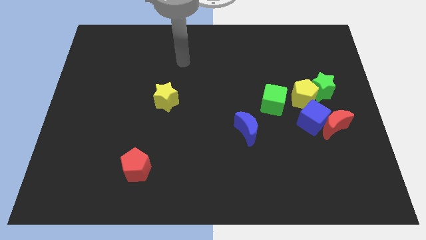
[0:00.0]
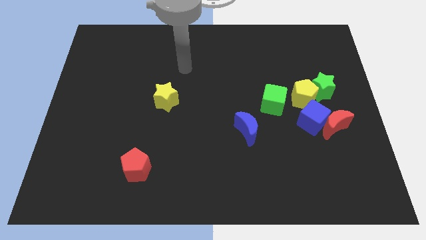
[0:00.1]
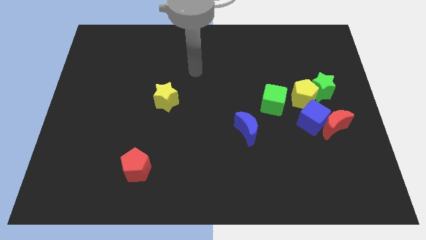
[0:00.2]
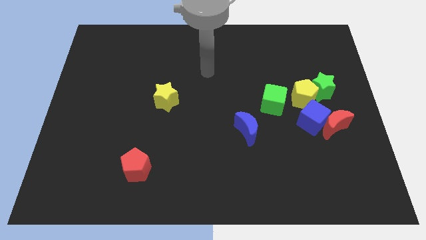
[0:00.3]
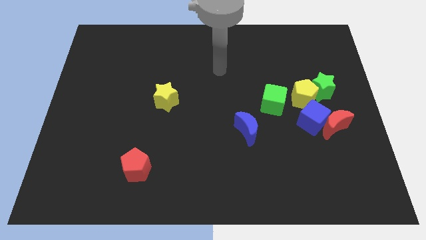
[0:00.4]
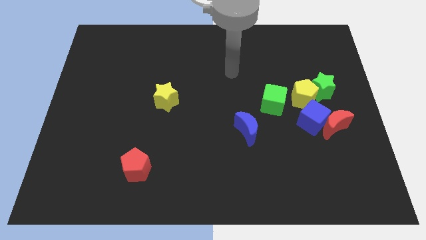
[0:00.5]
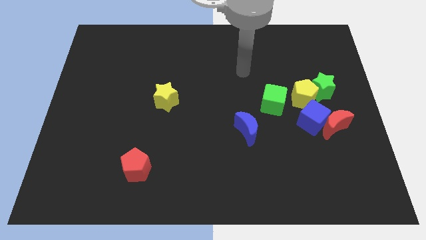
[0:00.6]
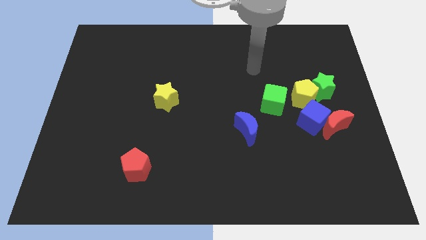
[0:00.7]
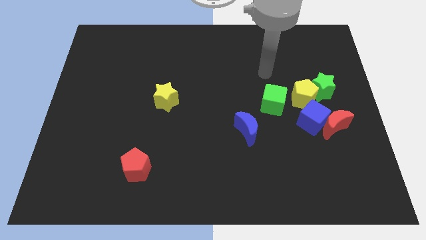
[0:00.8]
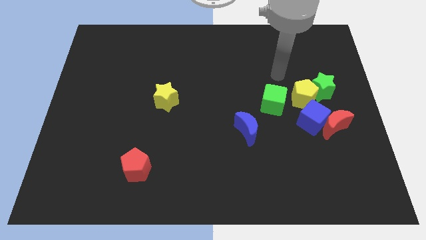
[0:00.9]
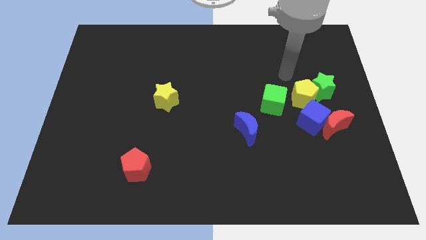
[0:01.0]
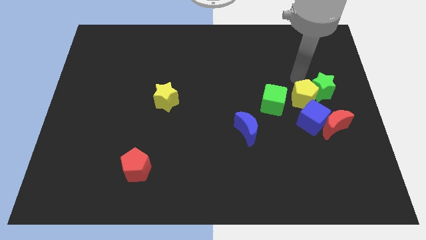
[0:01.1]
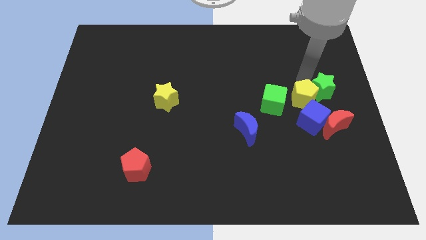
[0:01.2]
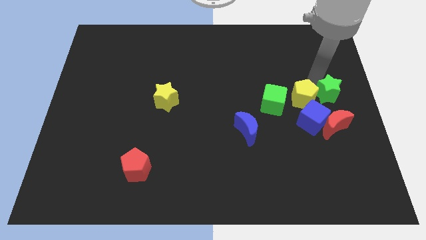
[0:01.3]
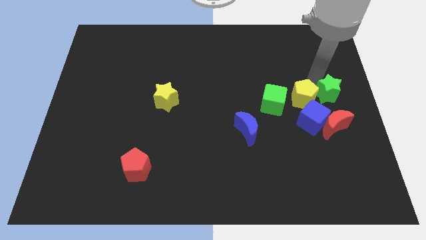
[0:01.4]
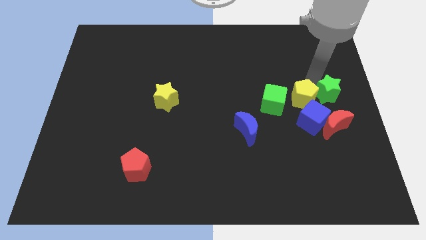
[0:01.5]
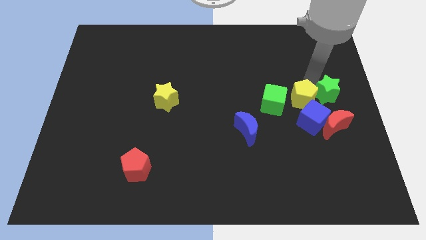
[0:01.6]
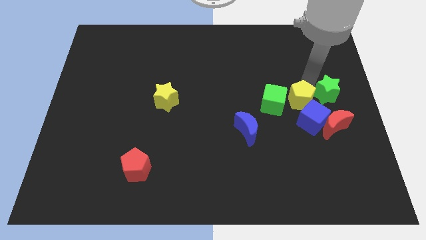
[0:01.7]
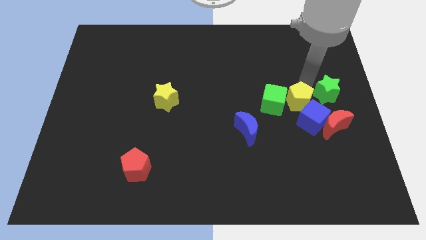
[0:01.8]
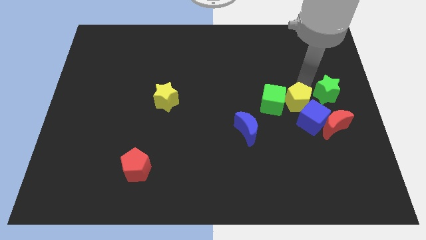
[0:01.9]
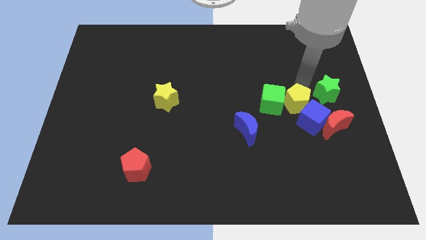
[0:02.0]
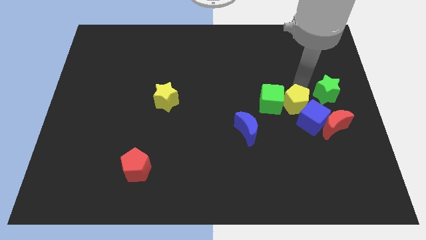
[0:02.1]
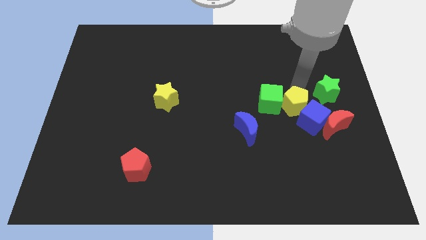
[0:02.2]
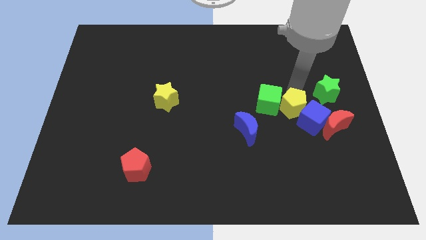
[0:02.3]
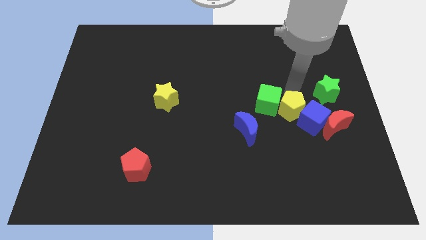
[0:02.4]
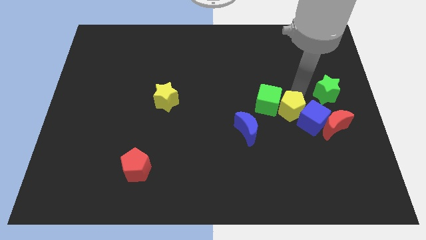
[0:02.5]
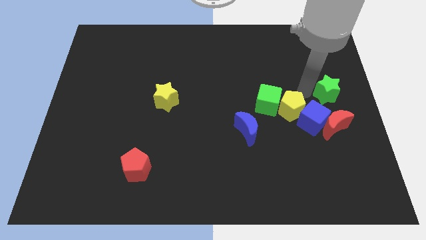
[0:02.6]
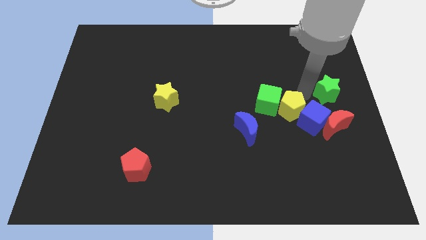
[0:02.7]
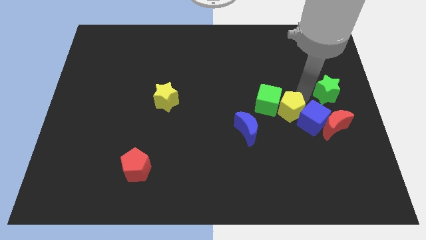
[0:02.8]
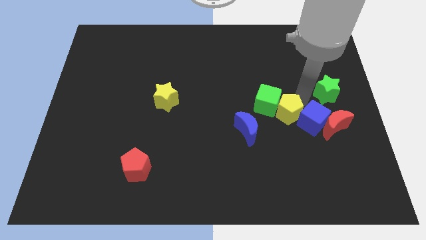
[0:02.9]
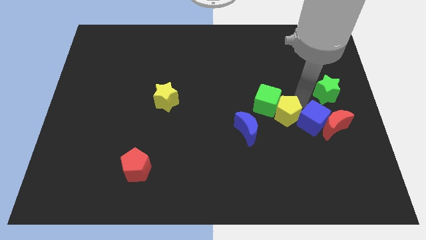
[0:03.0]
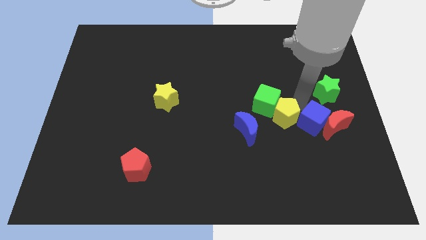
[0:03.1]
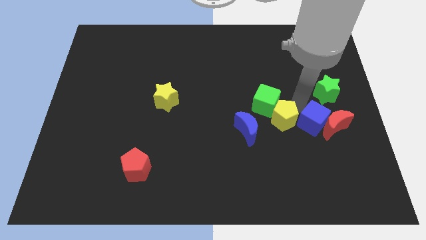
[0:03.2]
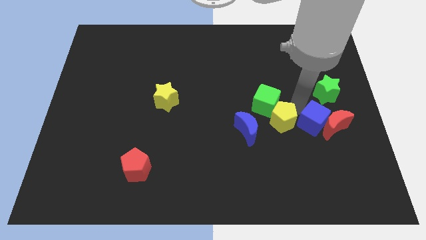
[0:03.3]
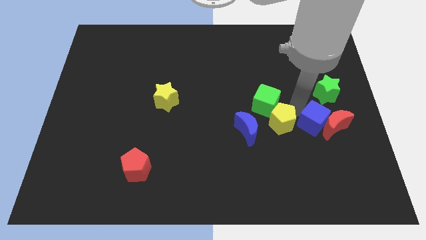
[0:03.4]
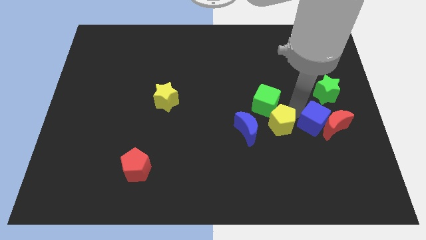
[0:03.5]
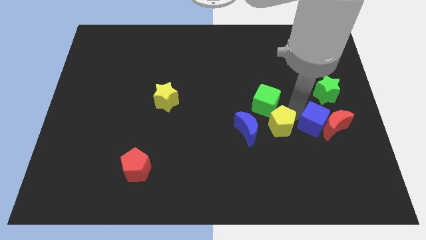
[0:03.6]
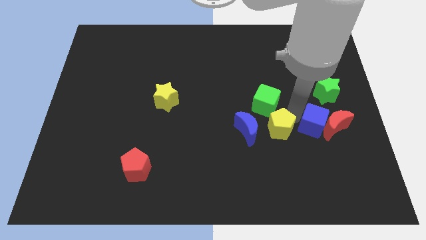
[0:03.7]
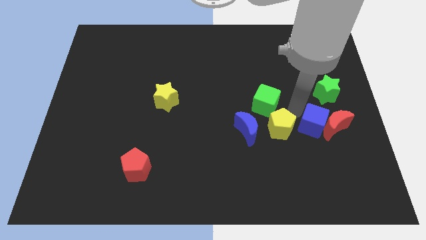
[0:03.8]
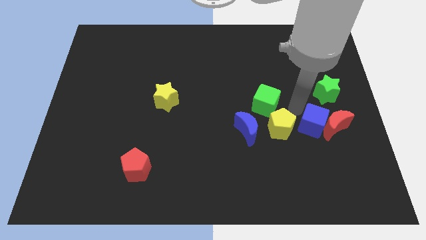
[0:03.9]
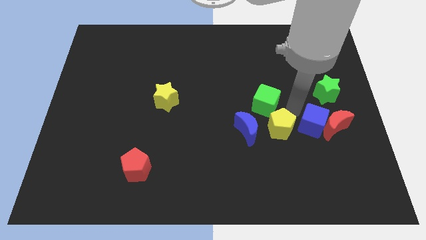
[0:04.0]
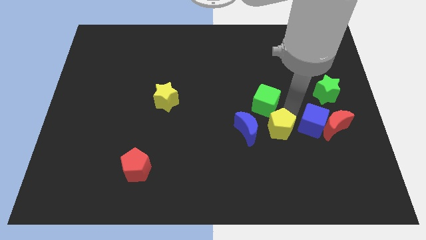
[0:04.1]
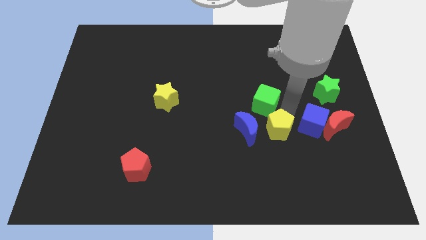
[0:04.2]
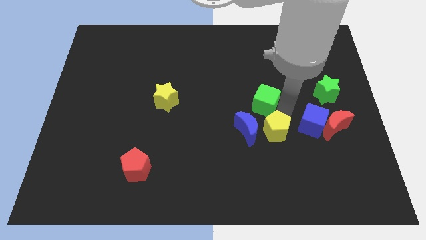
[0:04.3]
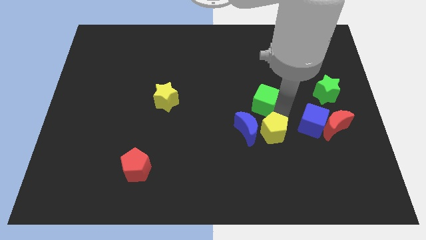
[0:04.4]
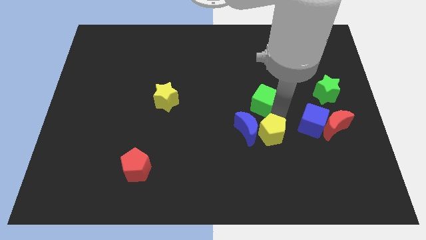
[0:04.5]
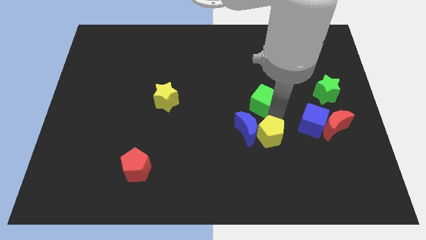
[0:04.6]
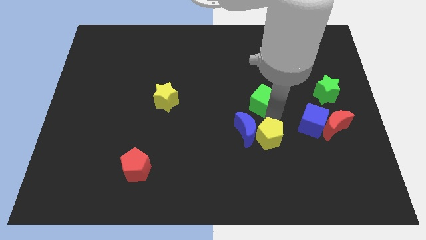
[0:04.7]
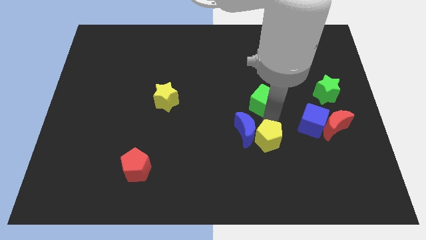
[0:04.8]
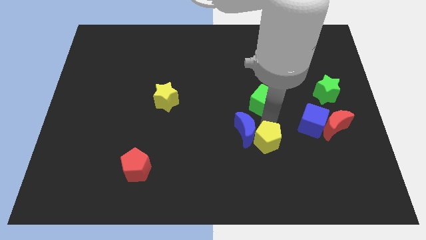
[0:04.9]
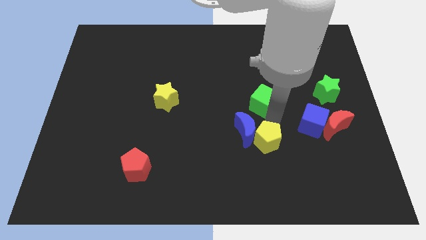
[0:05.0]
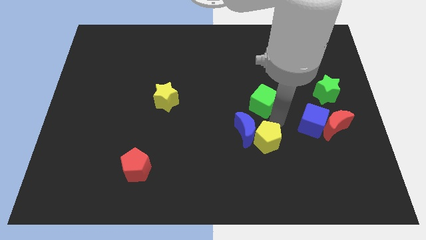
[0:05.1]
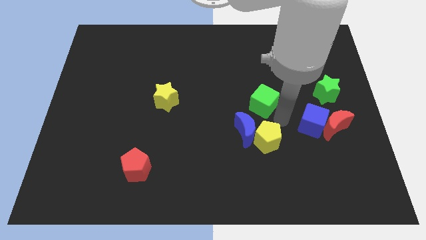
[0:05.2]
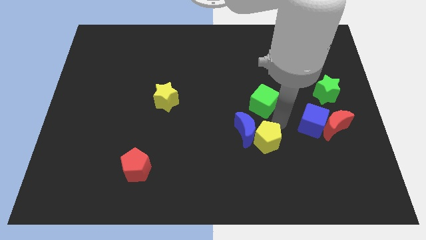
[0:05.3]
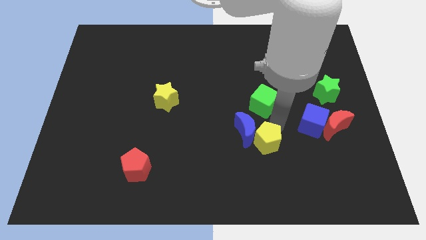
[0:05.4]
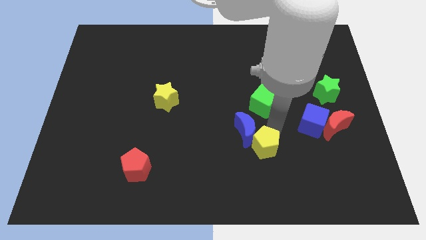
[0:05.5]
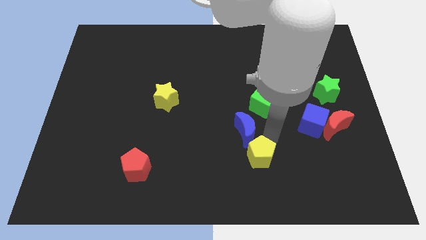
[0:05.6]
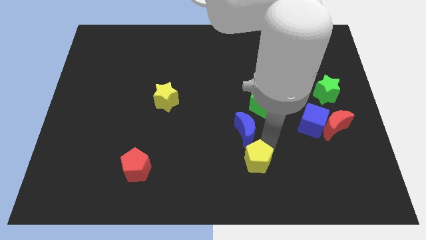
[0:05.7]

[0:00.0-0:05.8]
push the yellow pentagon down and then to the left

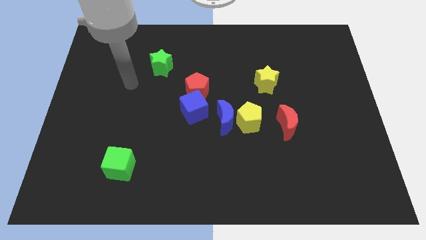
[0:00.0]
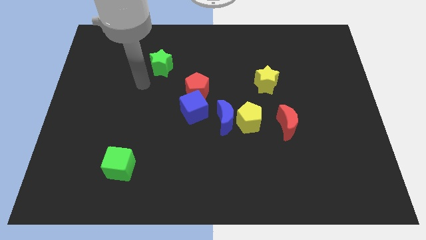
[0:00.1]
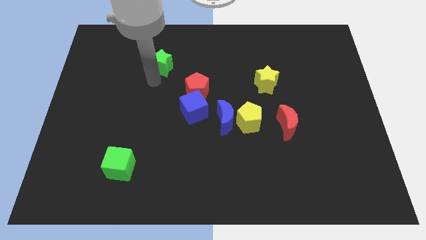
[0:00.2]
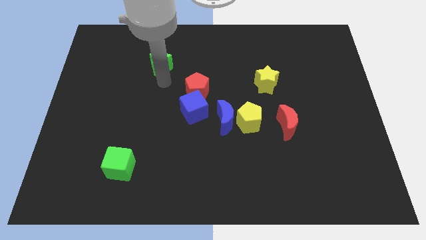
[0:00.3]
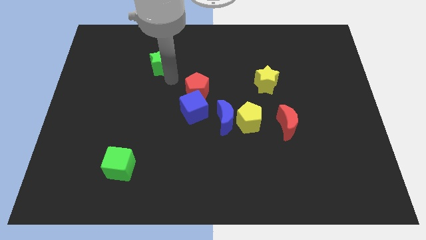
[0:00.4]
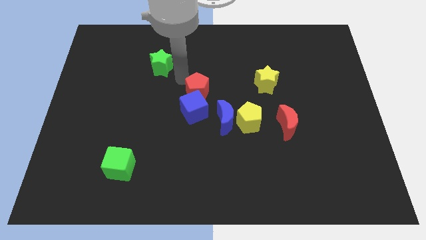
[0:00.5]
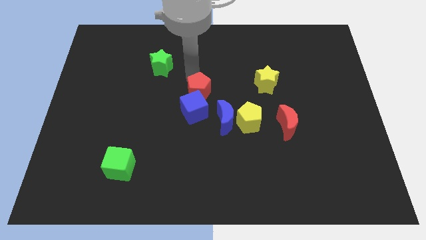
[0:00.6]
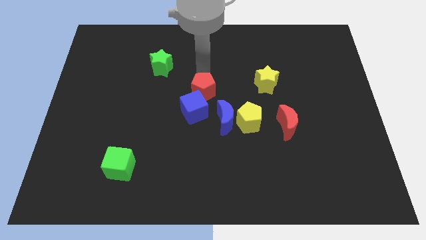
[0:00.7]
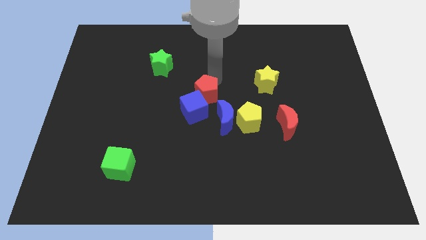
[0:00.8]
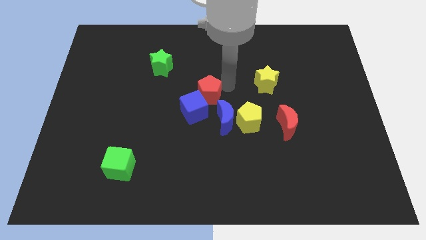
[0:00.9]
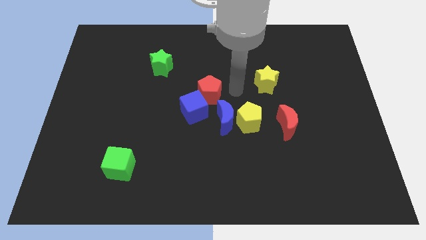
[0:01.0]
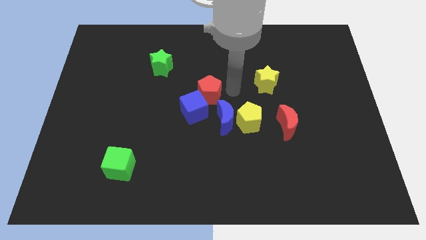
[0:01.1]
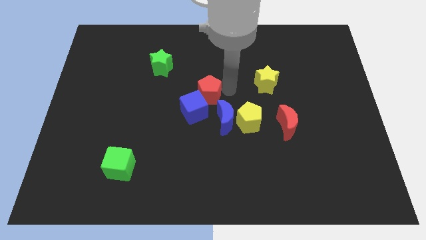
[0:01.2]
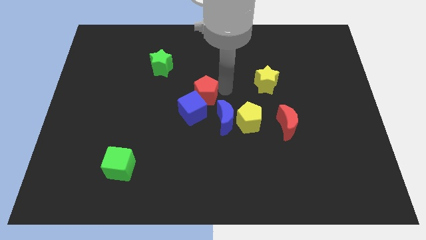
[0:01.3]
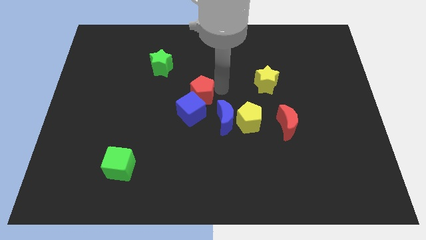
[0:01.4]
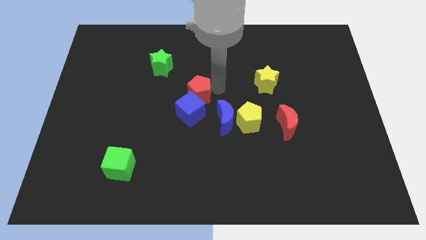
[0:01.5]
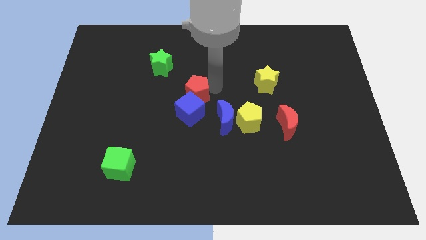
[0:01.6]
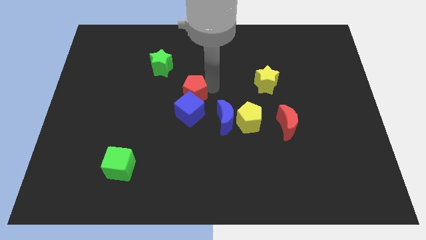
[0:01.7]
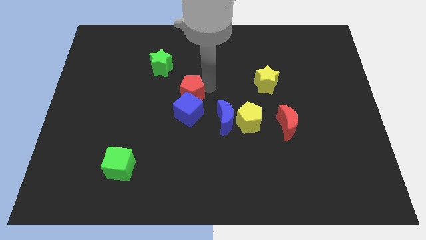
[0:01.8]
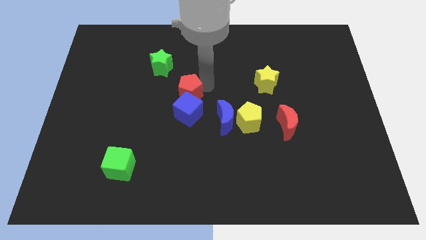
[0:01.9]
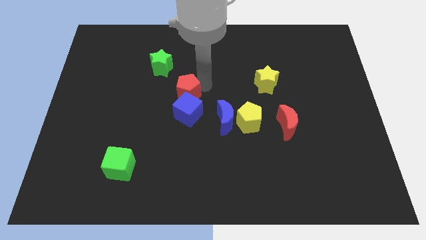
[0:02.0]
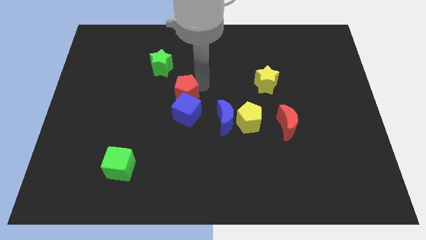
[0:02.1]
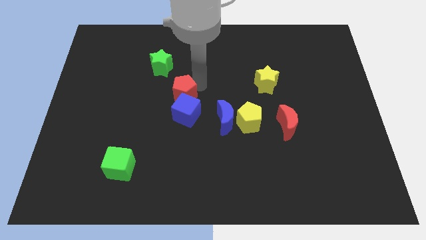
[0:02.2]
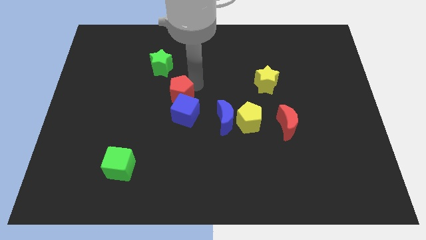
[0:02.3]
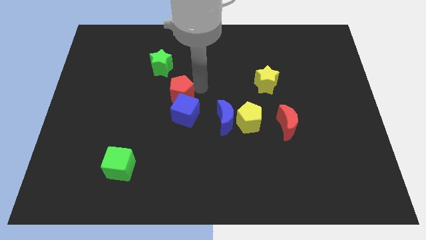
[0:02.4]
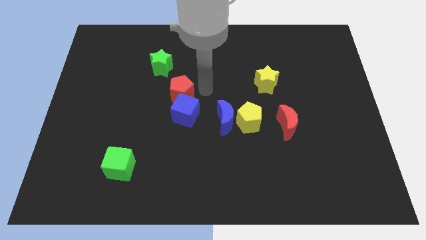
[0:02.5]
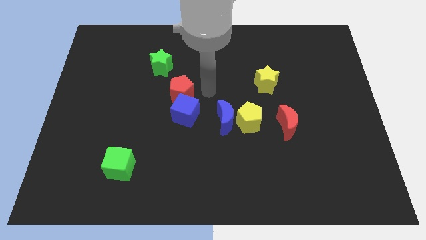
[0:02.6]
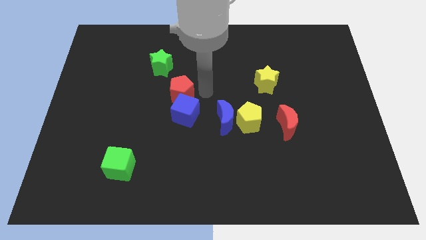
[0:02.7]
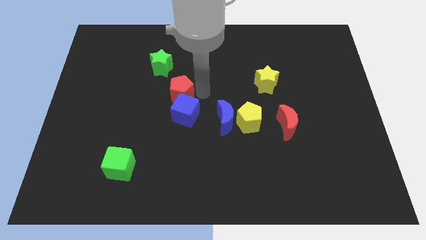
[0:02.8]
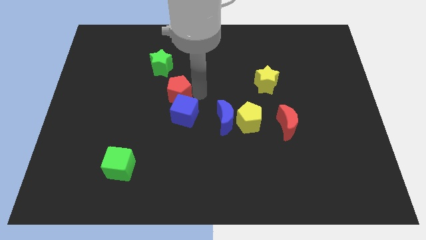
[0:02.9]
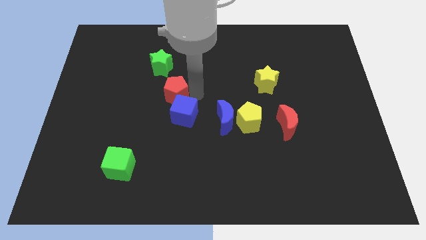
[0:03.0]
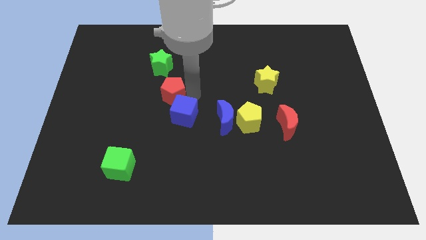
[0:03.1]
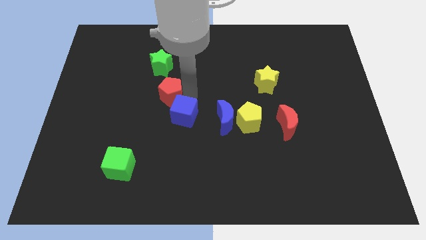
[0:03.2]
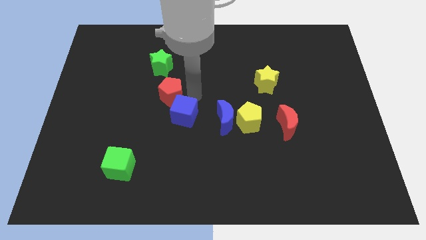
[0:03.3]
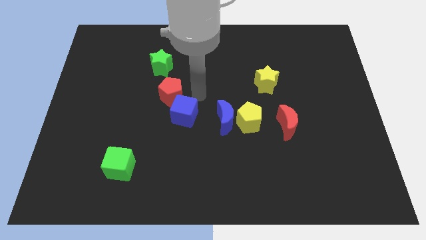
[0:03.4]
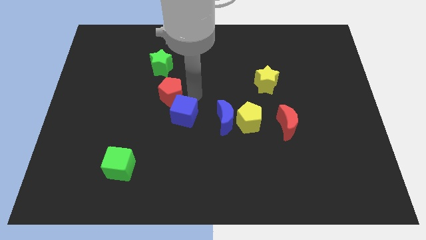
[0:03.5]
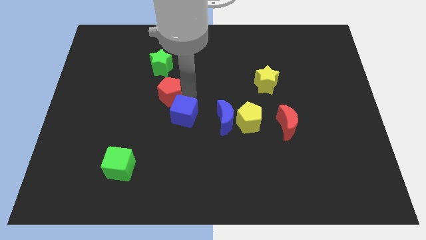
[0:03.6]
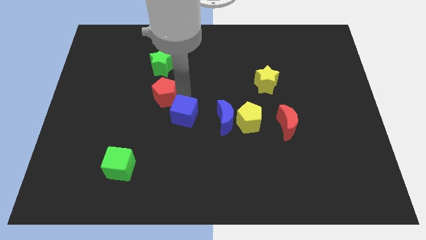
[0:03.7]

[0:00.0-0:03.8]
slightly push the red pentagon to the left
